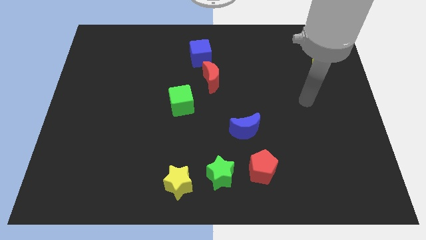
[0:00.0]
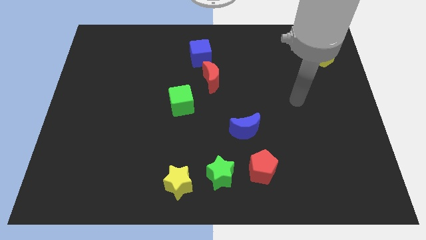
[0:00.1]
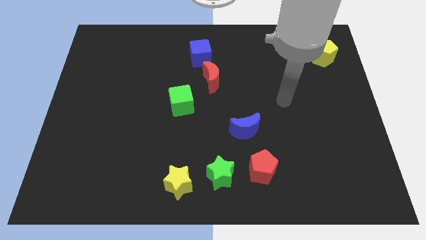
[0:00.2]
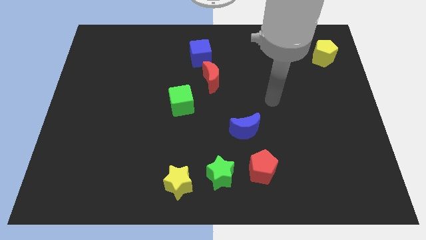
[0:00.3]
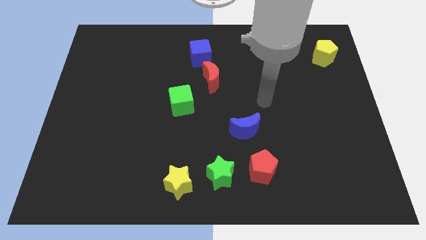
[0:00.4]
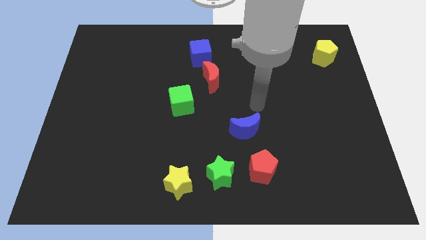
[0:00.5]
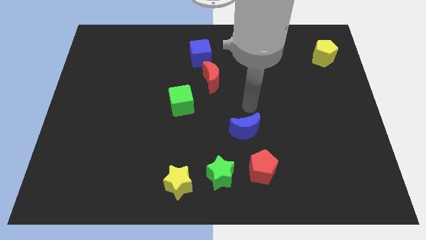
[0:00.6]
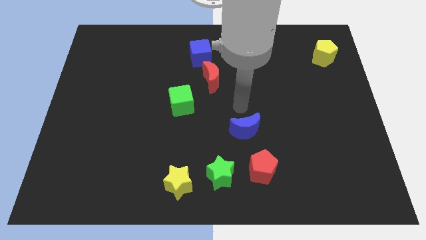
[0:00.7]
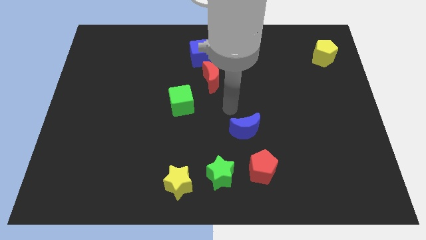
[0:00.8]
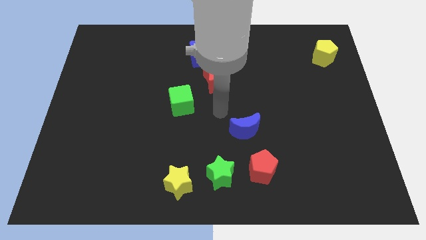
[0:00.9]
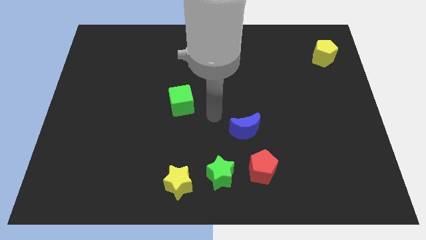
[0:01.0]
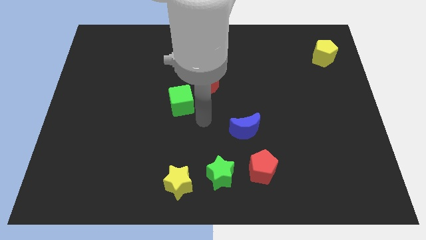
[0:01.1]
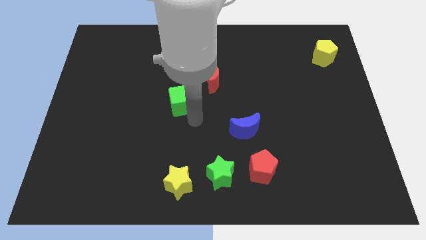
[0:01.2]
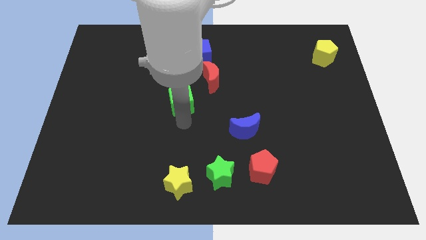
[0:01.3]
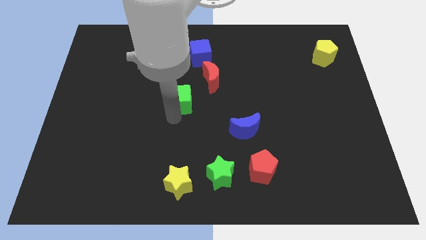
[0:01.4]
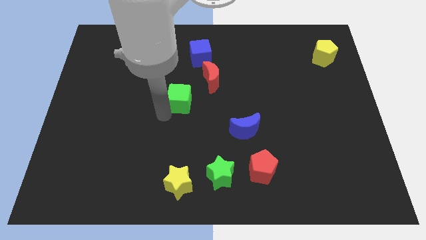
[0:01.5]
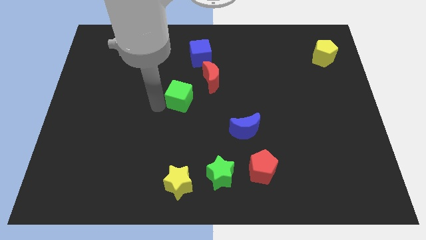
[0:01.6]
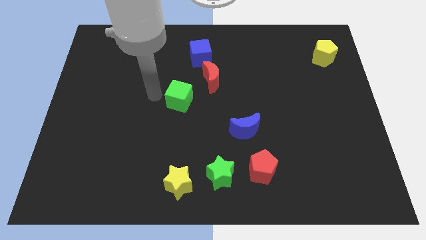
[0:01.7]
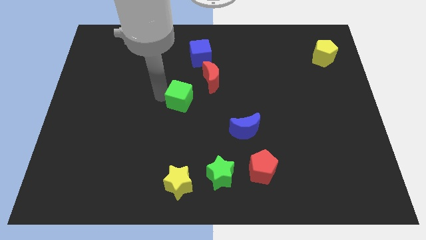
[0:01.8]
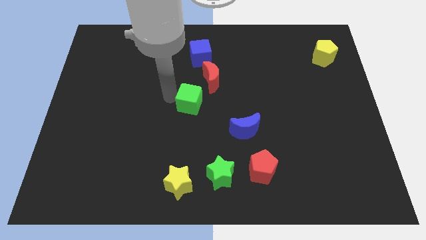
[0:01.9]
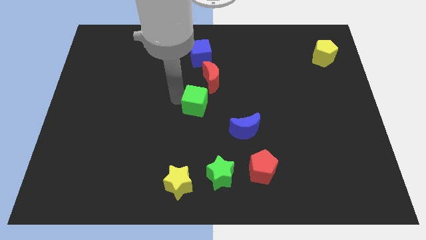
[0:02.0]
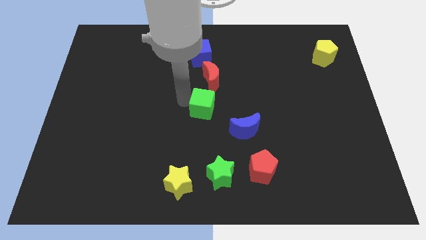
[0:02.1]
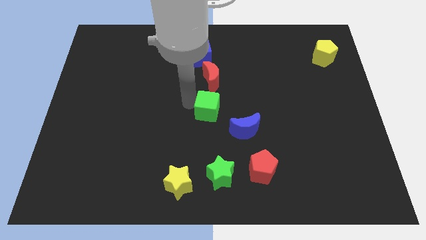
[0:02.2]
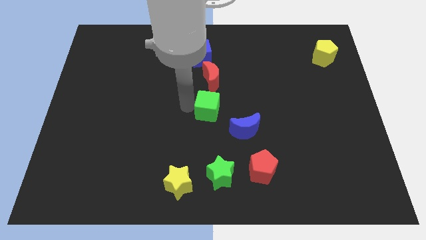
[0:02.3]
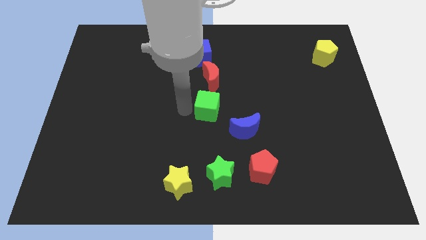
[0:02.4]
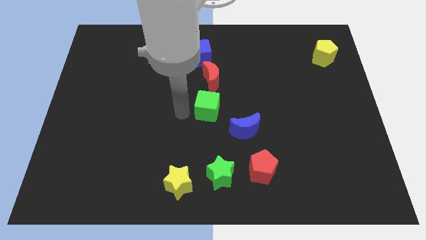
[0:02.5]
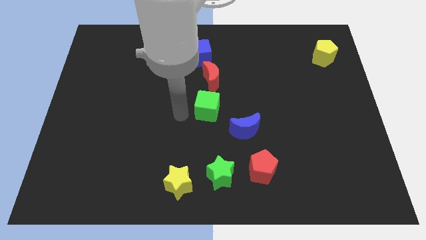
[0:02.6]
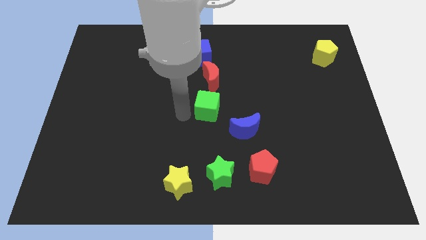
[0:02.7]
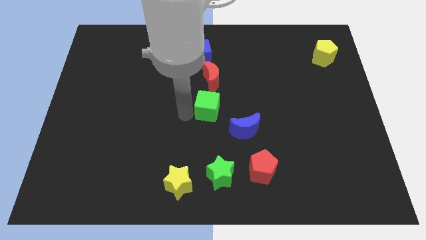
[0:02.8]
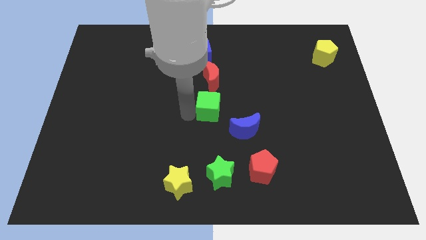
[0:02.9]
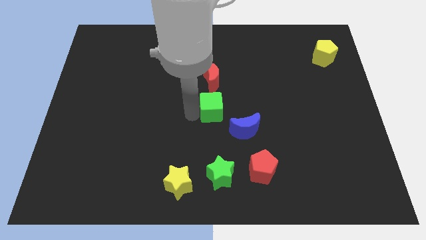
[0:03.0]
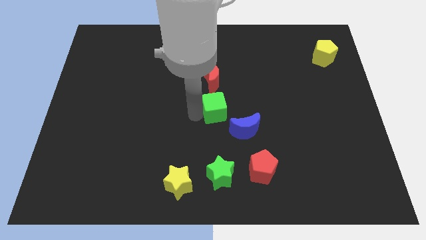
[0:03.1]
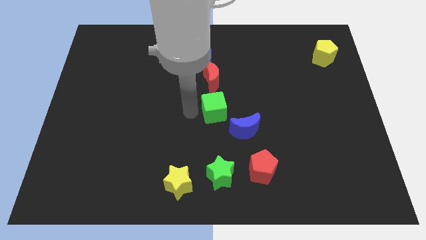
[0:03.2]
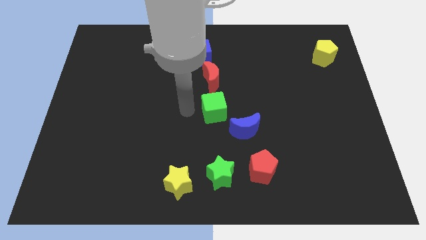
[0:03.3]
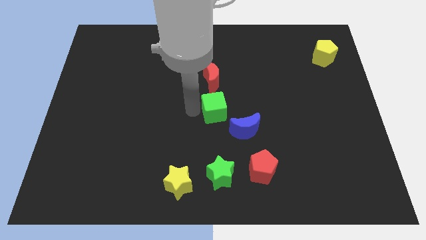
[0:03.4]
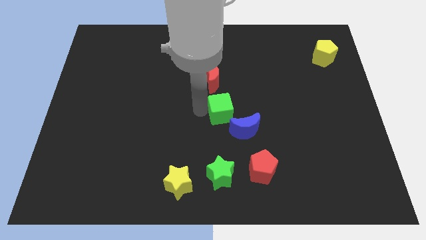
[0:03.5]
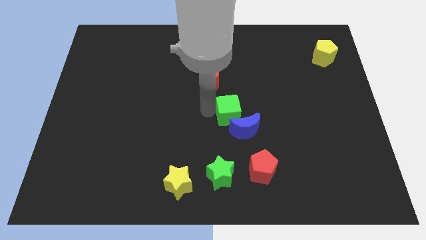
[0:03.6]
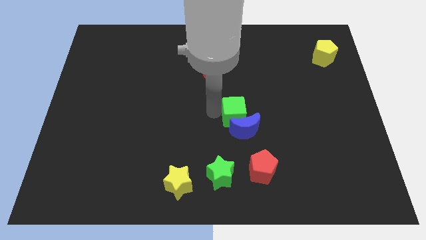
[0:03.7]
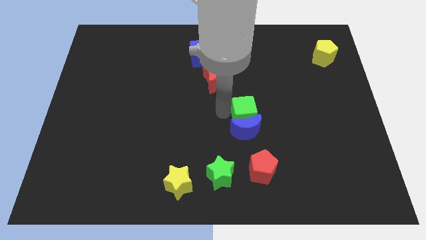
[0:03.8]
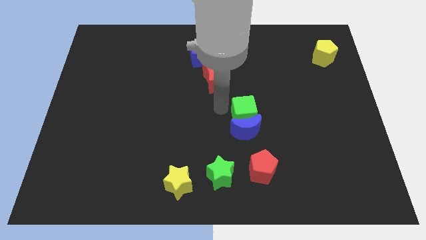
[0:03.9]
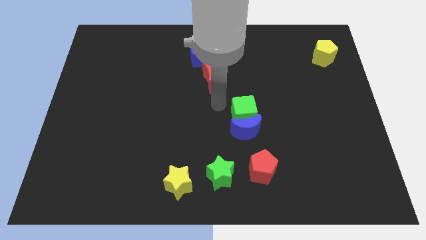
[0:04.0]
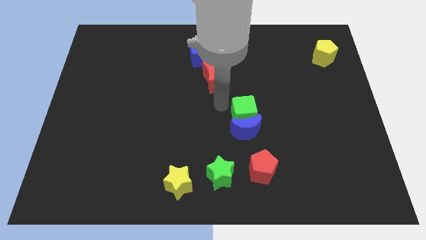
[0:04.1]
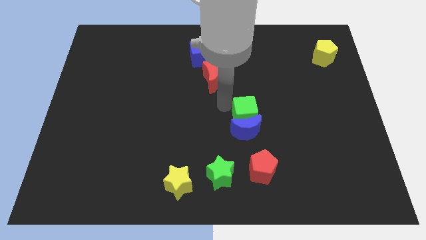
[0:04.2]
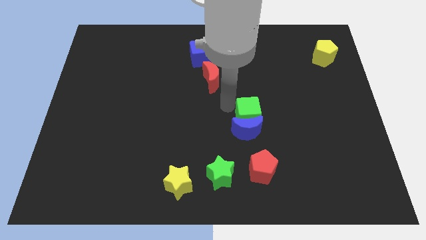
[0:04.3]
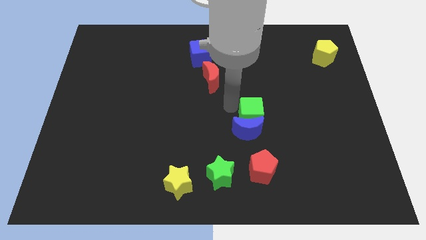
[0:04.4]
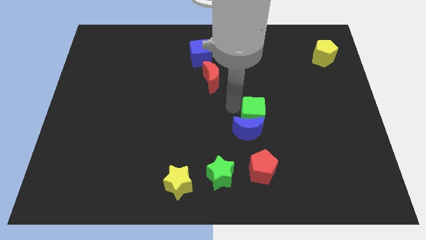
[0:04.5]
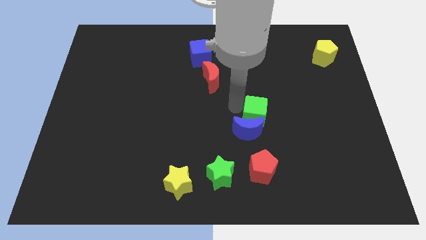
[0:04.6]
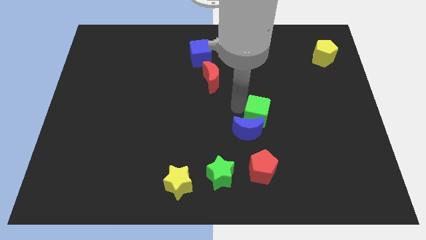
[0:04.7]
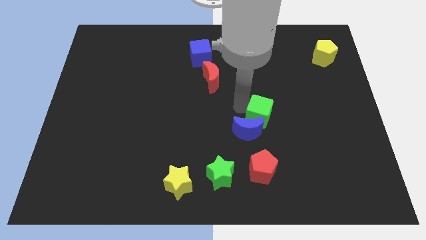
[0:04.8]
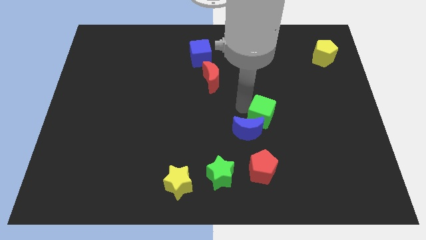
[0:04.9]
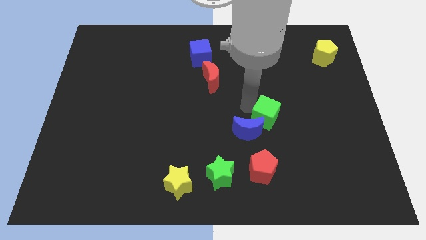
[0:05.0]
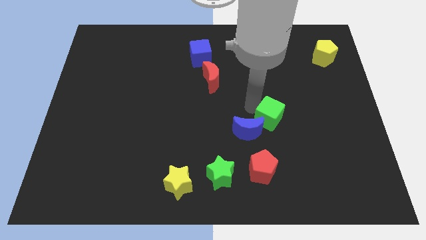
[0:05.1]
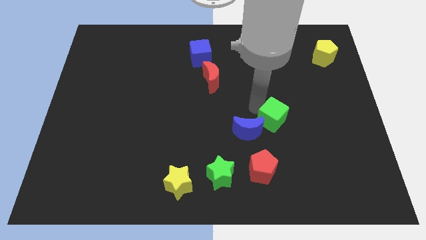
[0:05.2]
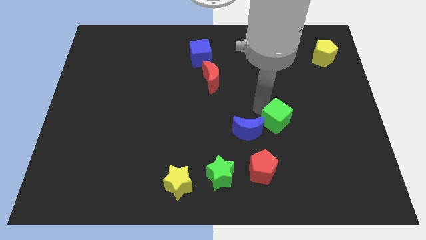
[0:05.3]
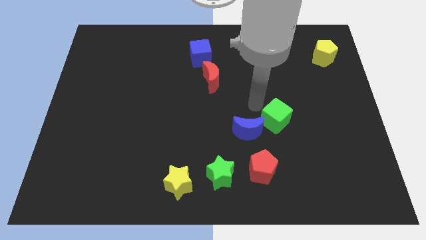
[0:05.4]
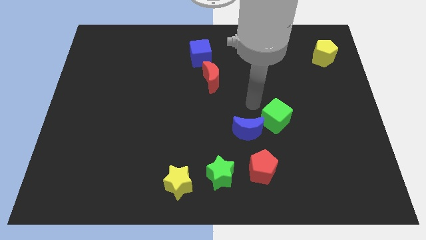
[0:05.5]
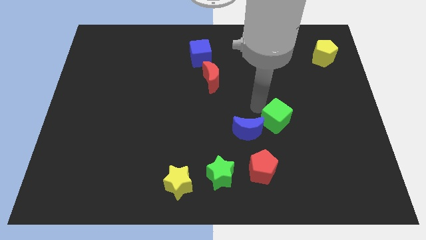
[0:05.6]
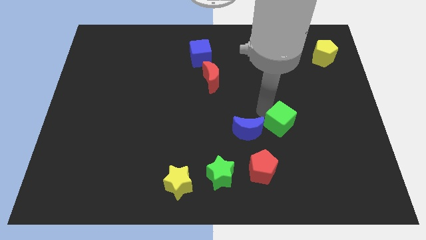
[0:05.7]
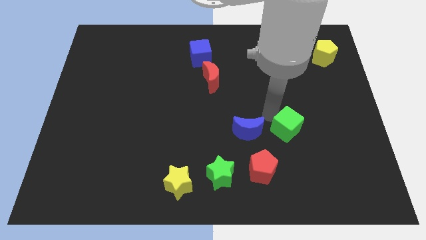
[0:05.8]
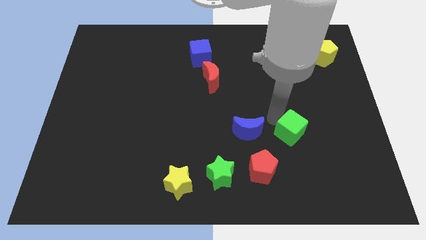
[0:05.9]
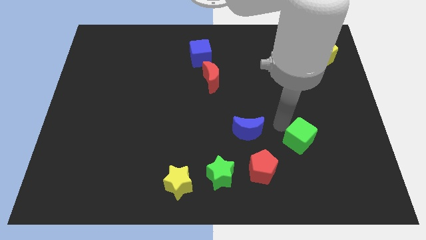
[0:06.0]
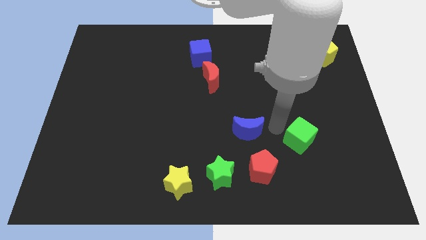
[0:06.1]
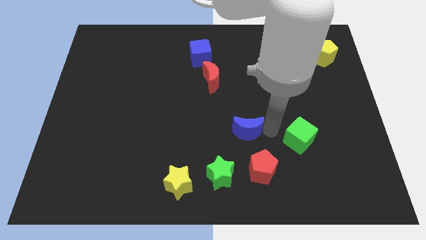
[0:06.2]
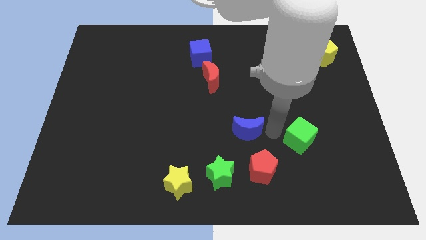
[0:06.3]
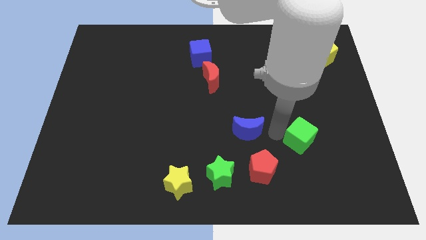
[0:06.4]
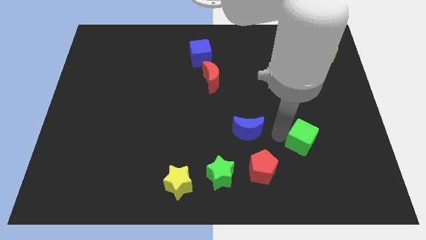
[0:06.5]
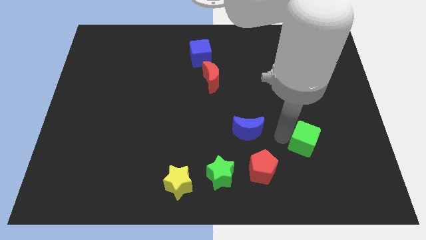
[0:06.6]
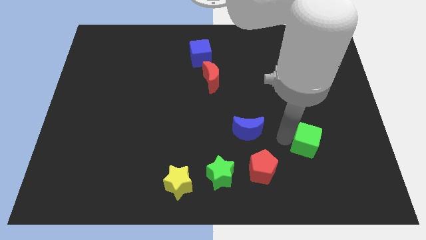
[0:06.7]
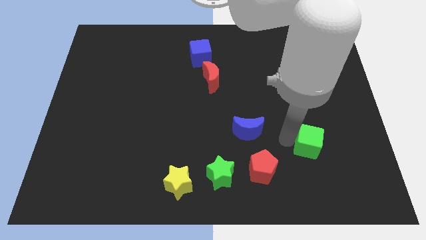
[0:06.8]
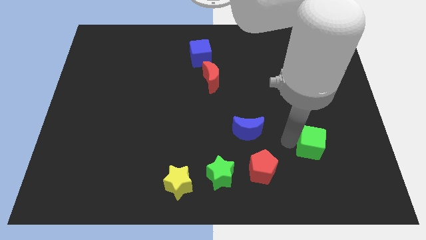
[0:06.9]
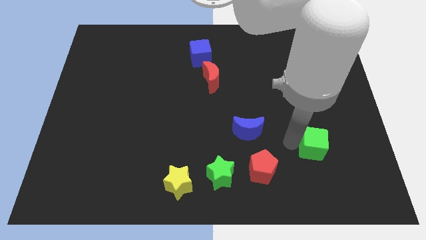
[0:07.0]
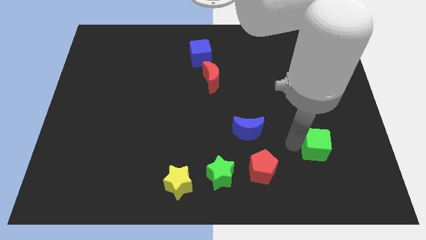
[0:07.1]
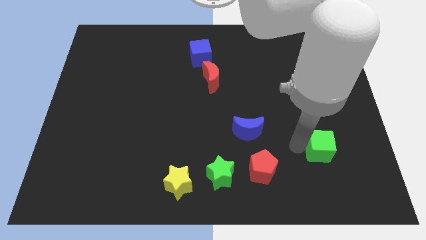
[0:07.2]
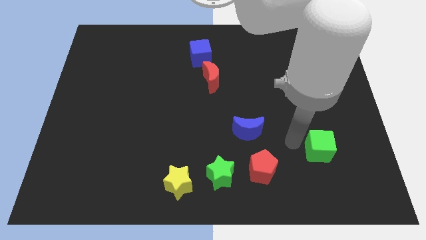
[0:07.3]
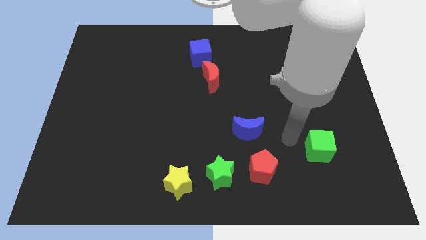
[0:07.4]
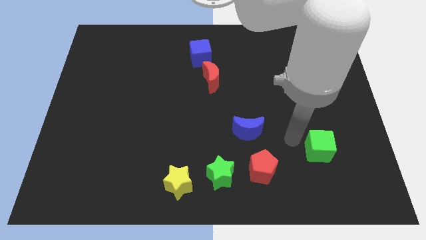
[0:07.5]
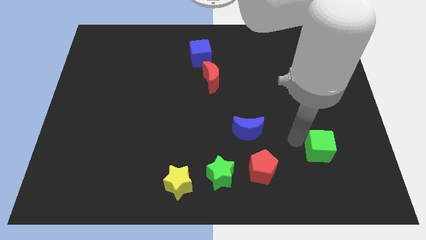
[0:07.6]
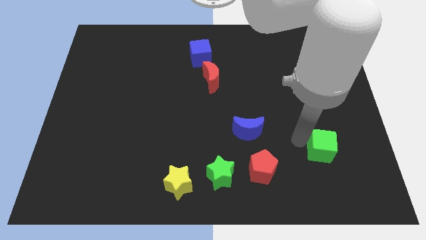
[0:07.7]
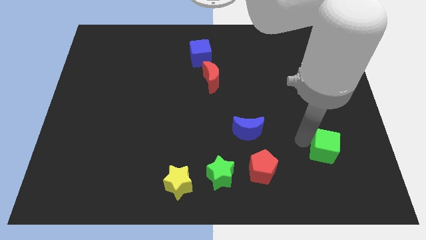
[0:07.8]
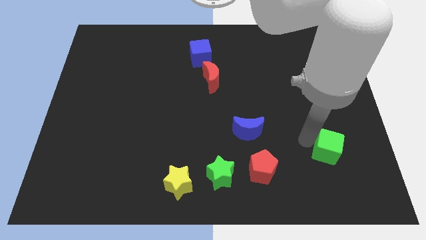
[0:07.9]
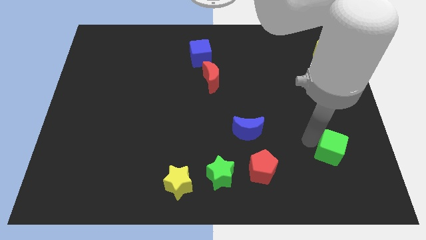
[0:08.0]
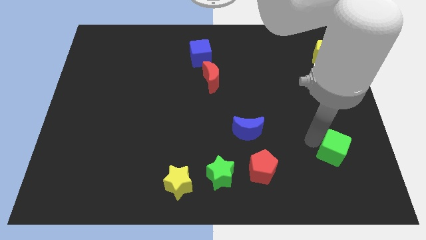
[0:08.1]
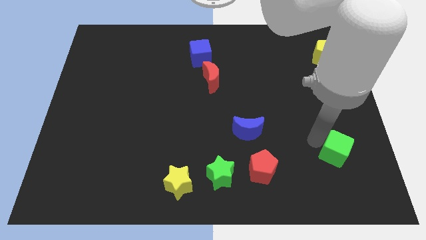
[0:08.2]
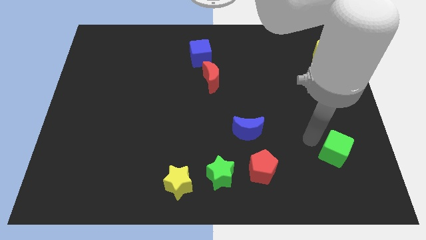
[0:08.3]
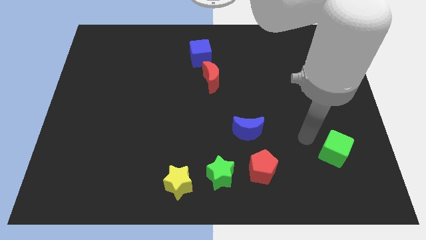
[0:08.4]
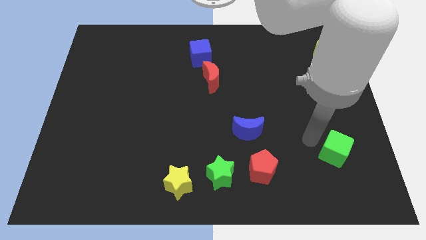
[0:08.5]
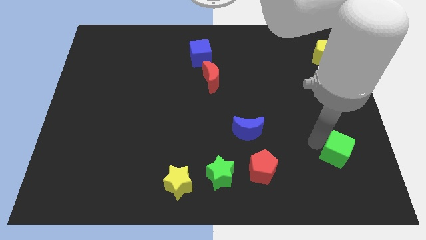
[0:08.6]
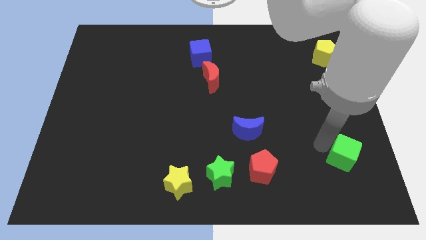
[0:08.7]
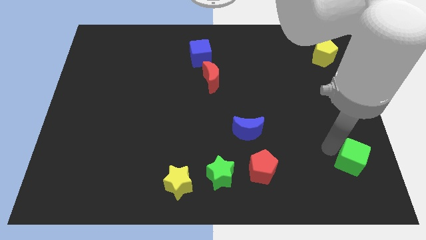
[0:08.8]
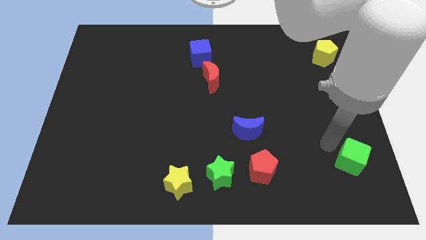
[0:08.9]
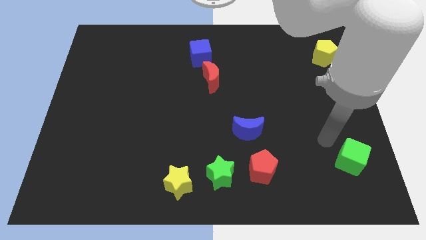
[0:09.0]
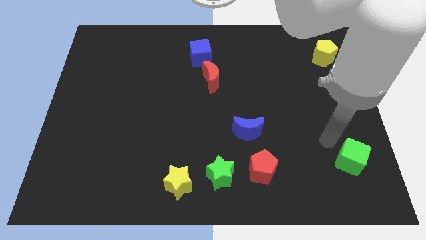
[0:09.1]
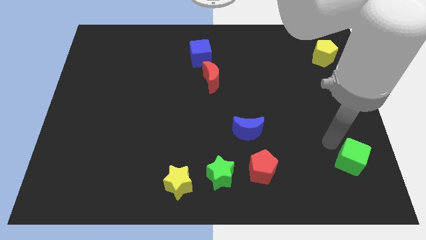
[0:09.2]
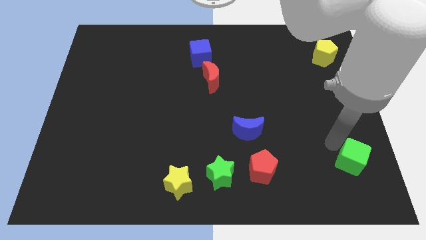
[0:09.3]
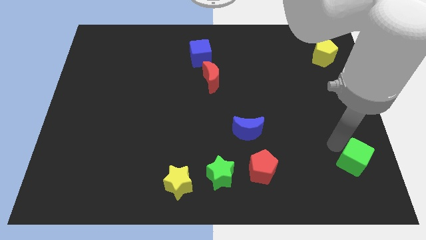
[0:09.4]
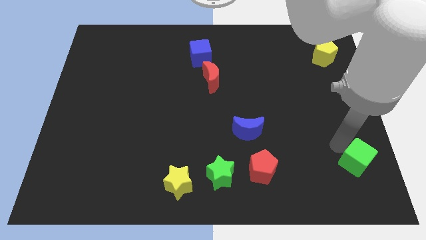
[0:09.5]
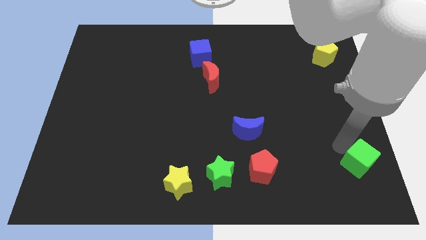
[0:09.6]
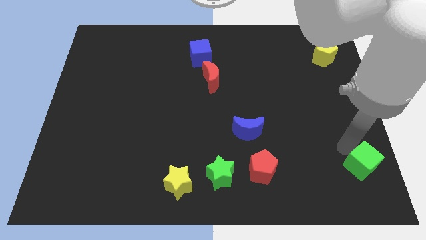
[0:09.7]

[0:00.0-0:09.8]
put the green cube to the bottom right of the board
